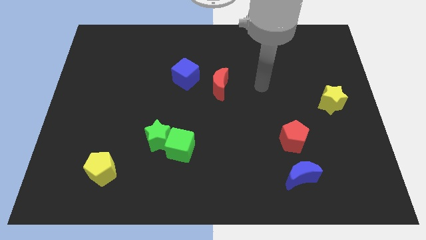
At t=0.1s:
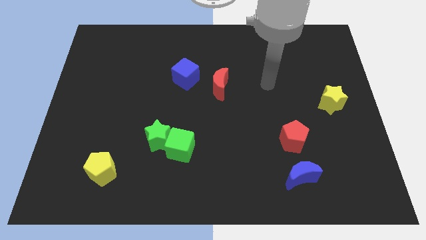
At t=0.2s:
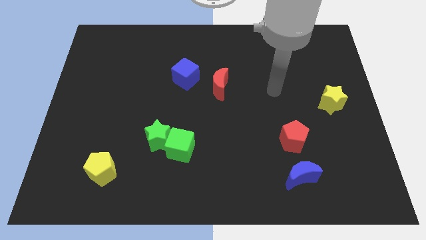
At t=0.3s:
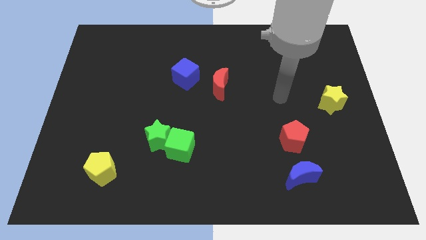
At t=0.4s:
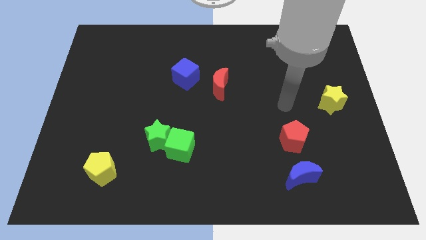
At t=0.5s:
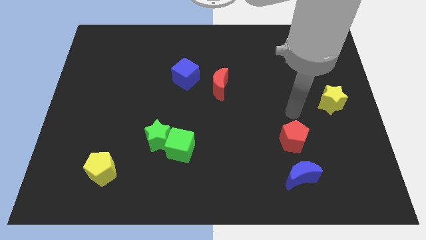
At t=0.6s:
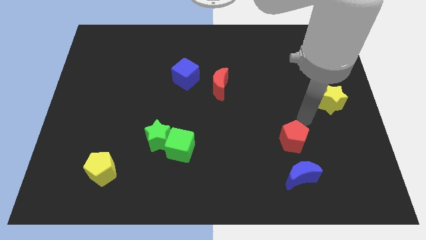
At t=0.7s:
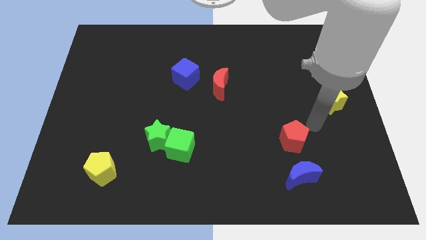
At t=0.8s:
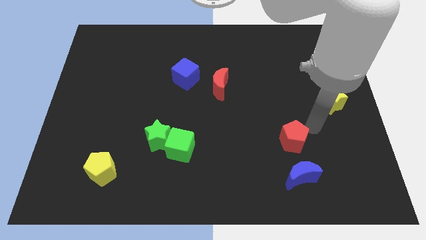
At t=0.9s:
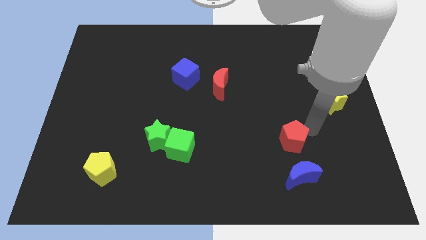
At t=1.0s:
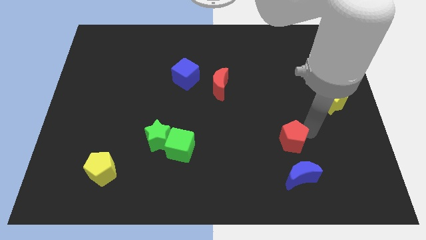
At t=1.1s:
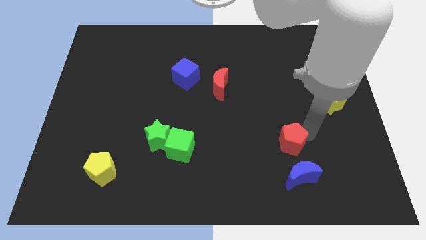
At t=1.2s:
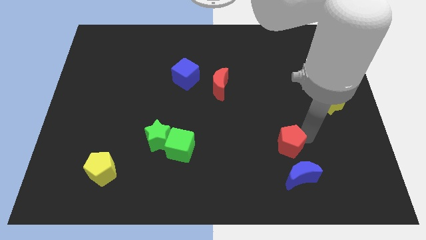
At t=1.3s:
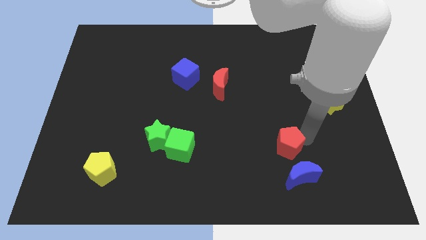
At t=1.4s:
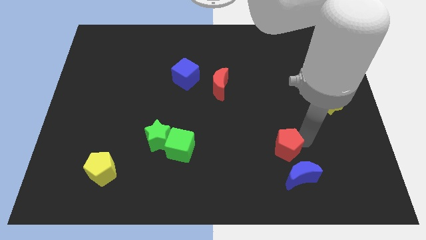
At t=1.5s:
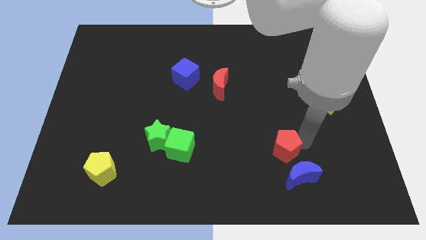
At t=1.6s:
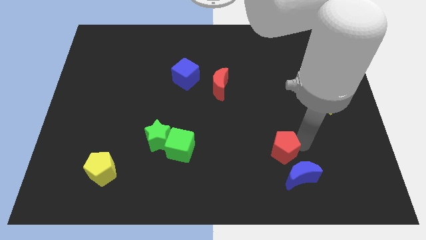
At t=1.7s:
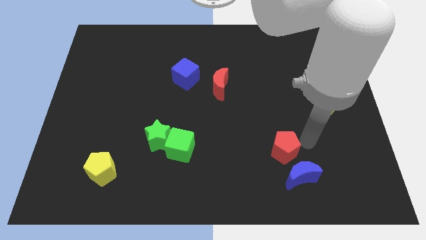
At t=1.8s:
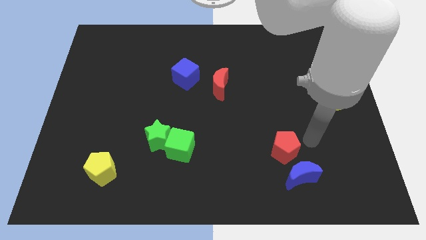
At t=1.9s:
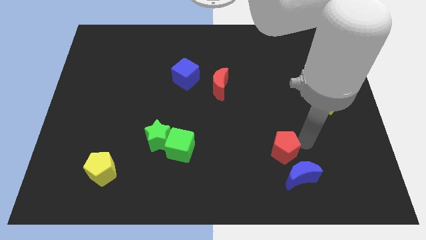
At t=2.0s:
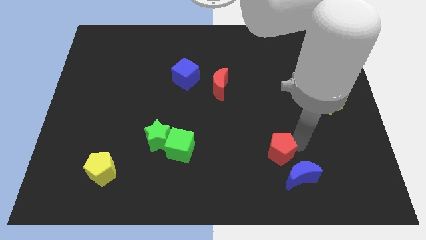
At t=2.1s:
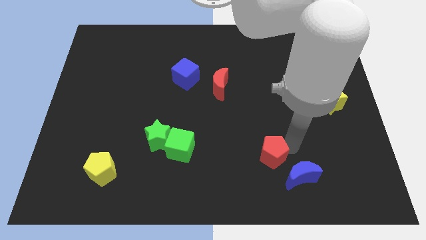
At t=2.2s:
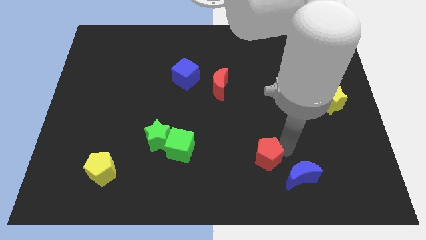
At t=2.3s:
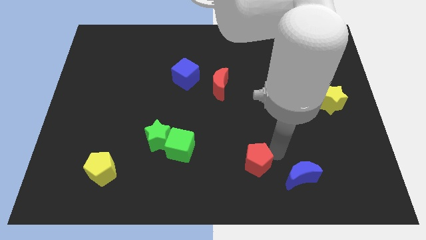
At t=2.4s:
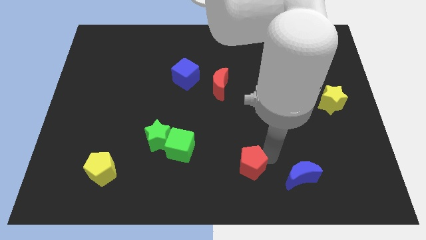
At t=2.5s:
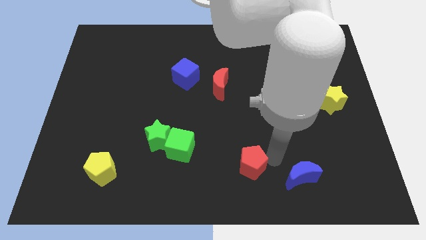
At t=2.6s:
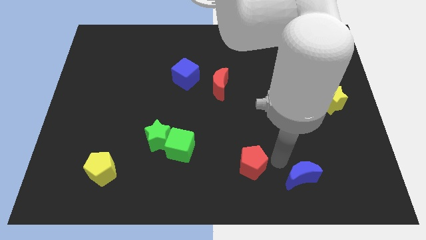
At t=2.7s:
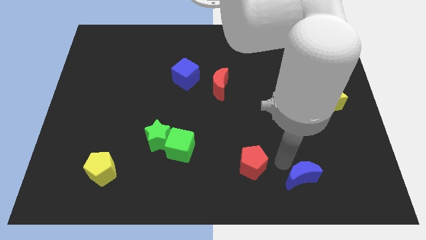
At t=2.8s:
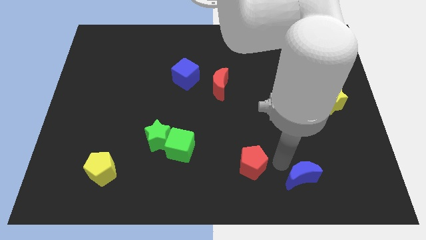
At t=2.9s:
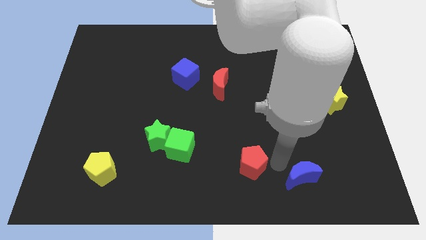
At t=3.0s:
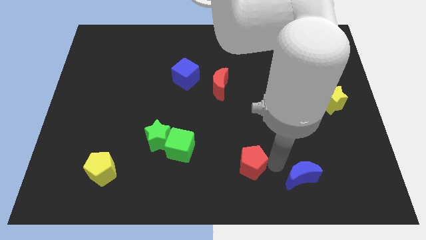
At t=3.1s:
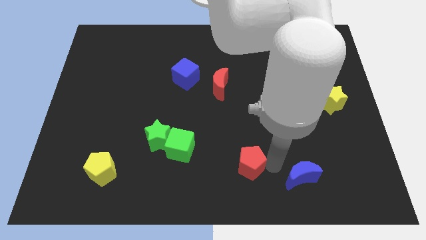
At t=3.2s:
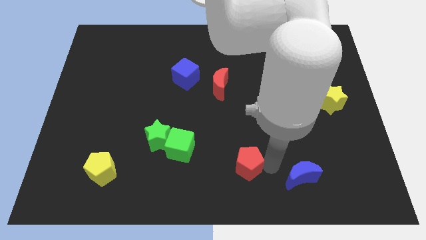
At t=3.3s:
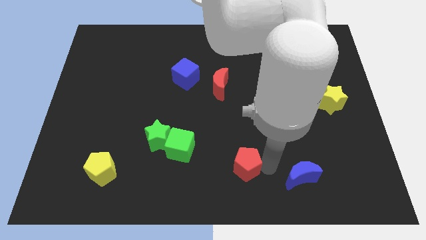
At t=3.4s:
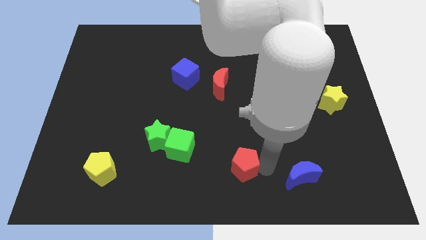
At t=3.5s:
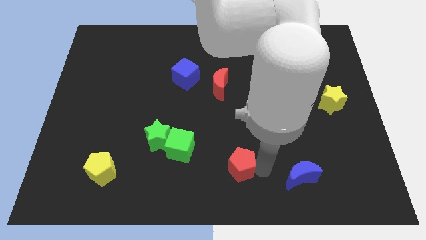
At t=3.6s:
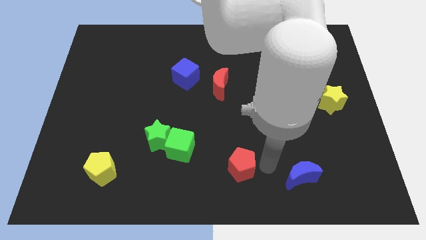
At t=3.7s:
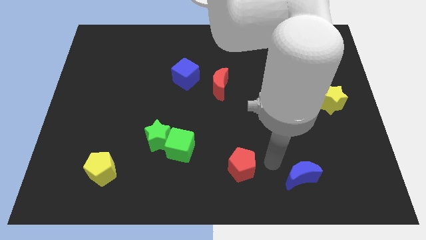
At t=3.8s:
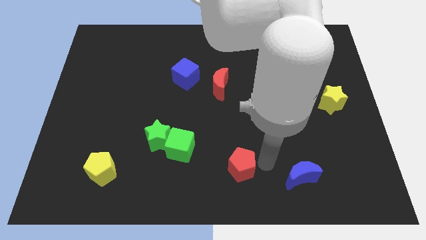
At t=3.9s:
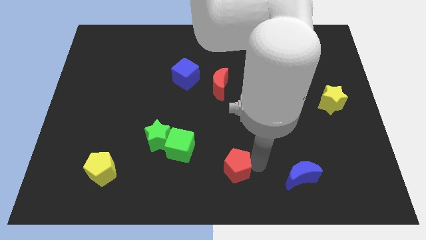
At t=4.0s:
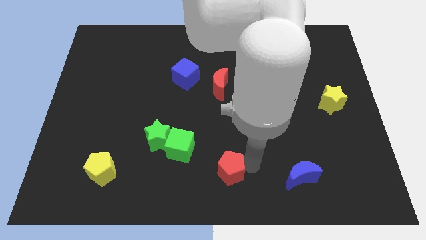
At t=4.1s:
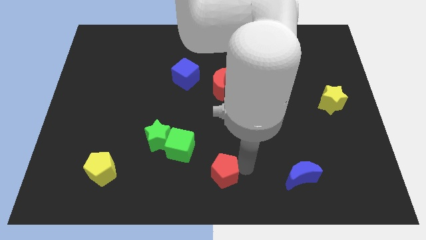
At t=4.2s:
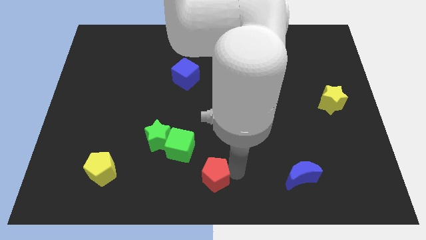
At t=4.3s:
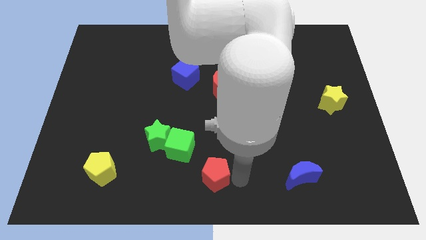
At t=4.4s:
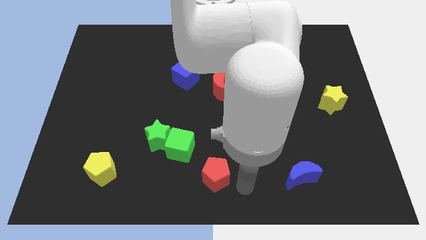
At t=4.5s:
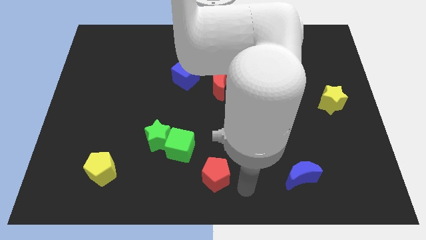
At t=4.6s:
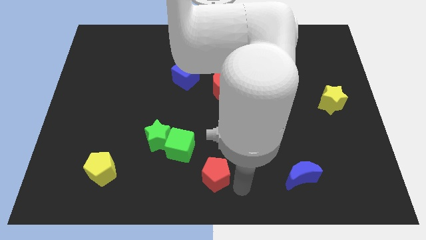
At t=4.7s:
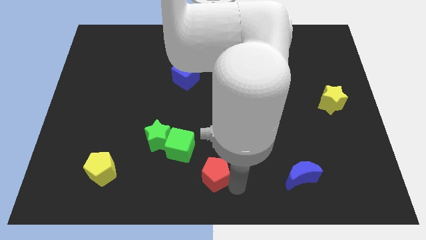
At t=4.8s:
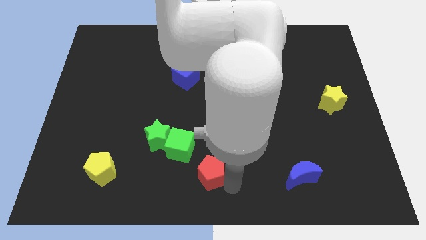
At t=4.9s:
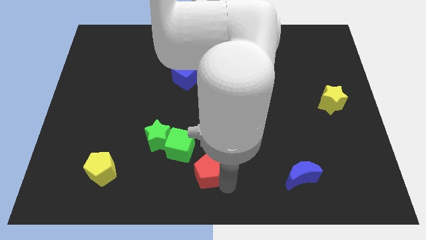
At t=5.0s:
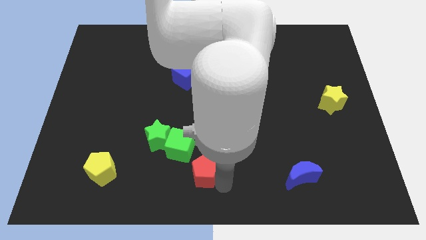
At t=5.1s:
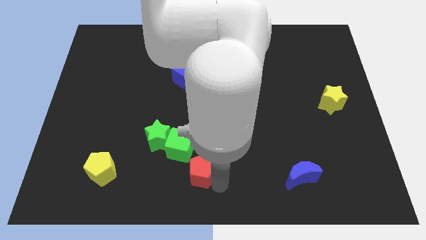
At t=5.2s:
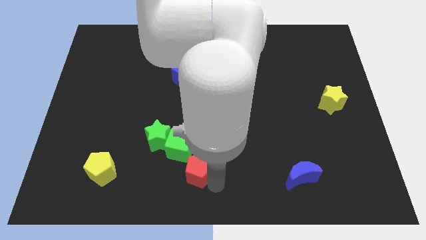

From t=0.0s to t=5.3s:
slide the red pentagon to the bottom right side of the green star

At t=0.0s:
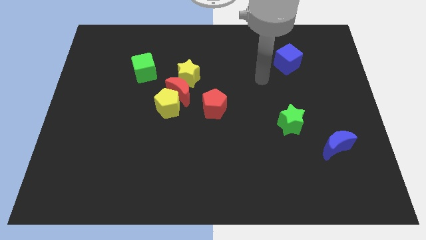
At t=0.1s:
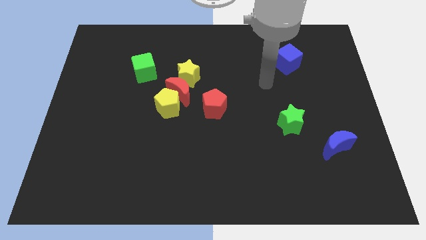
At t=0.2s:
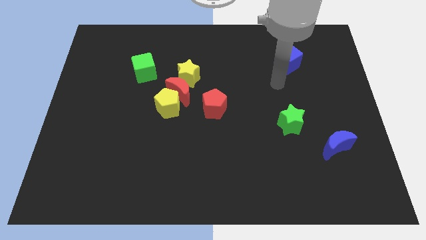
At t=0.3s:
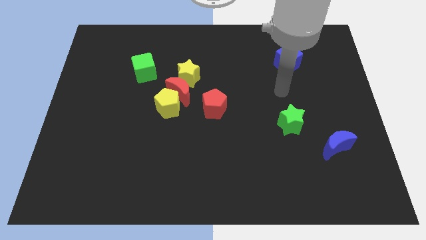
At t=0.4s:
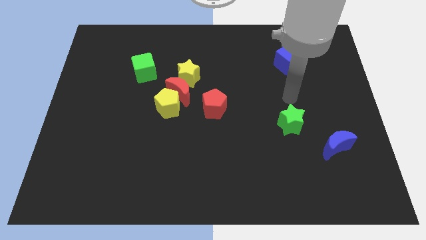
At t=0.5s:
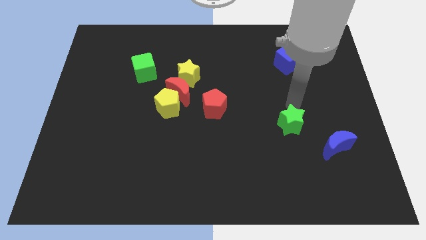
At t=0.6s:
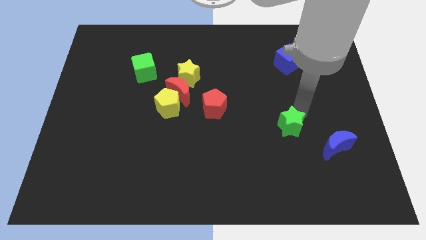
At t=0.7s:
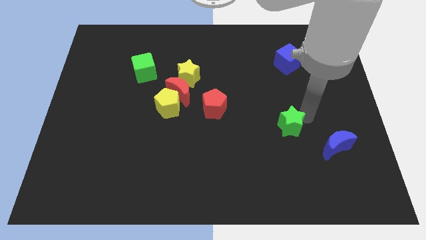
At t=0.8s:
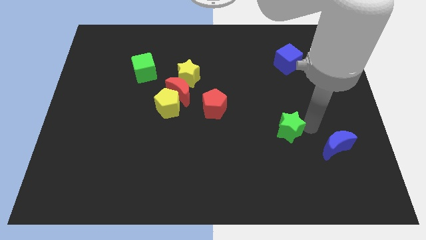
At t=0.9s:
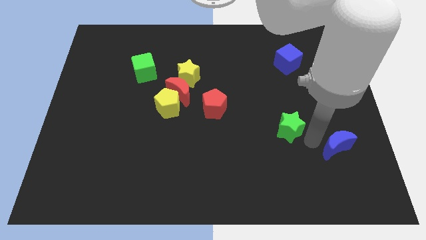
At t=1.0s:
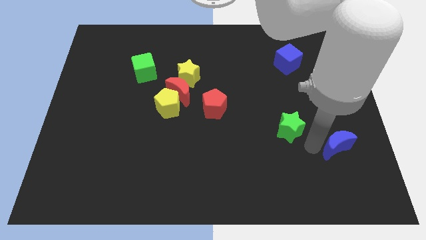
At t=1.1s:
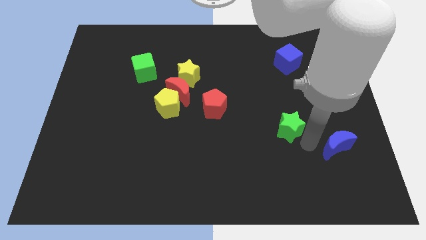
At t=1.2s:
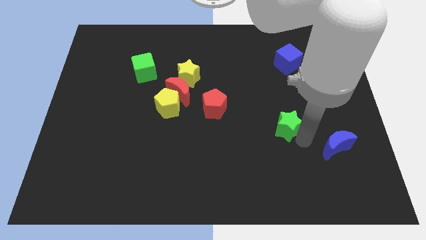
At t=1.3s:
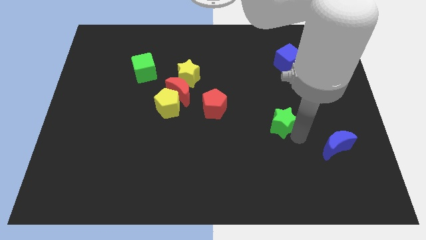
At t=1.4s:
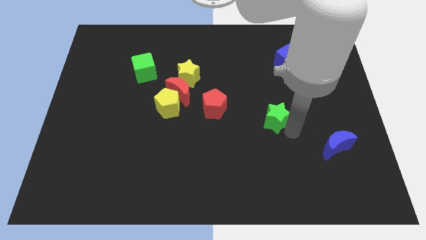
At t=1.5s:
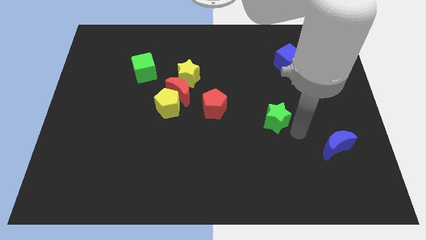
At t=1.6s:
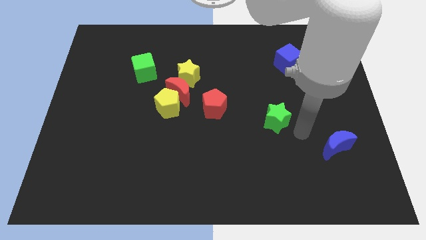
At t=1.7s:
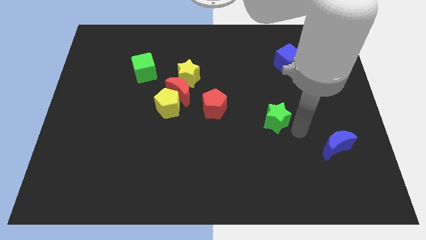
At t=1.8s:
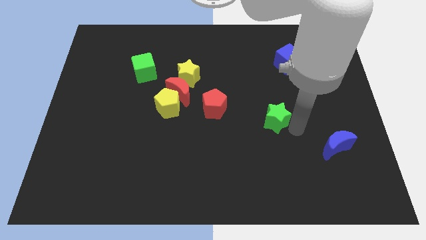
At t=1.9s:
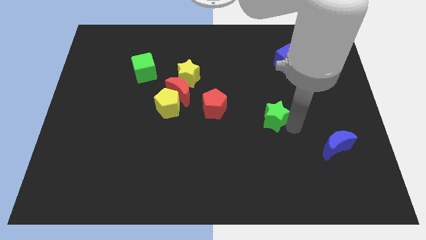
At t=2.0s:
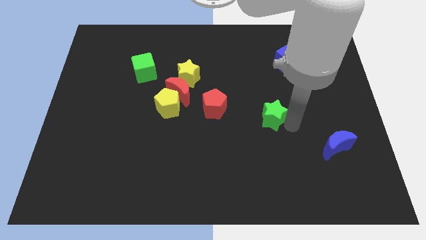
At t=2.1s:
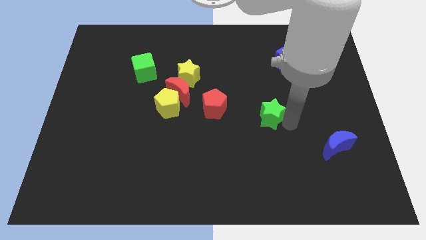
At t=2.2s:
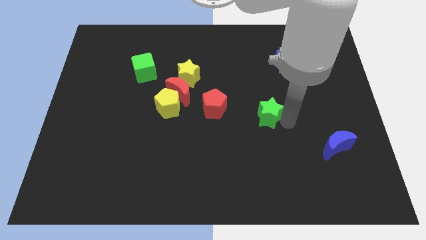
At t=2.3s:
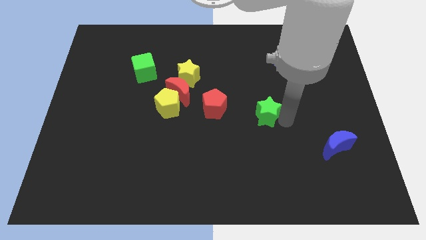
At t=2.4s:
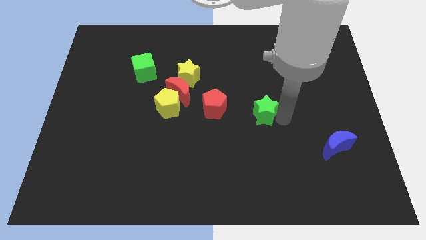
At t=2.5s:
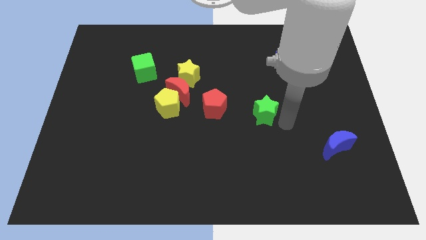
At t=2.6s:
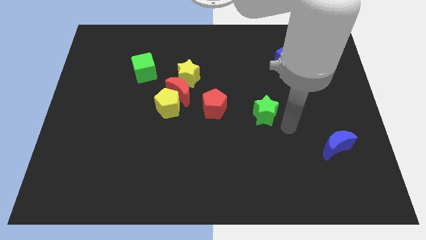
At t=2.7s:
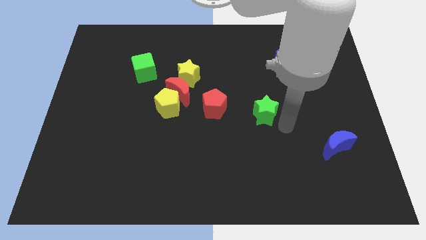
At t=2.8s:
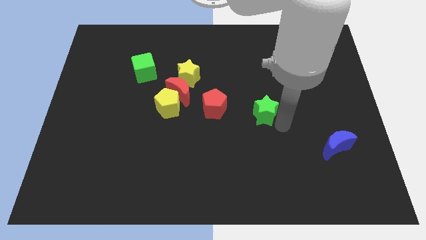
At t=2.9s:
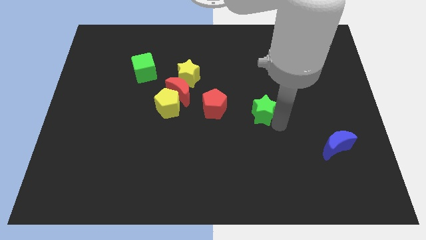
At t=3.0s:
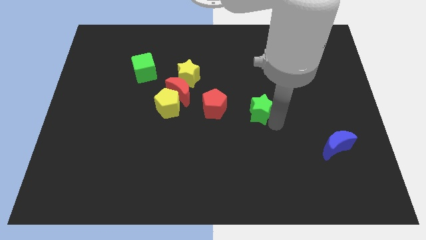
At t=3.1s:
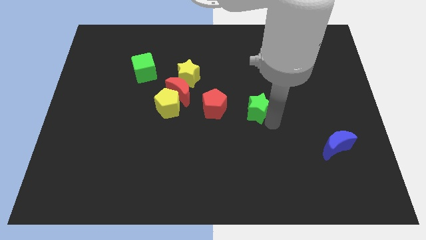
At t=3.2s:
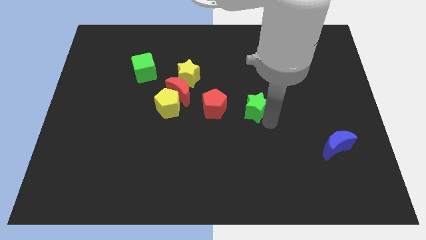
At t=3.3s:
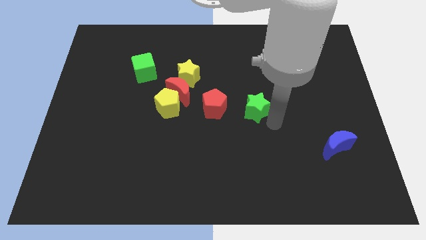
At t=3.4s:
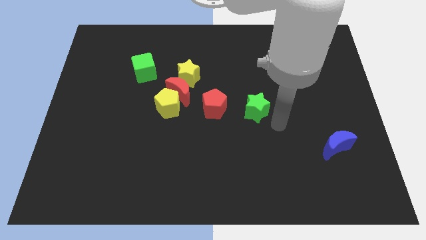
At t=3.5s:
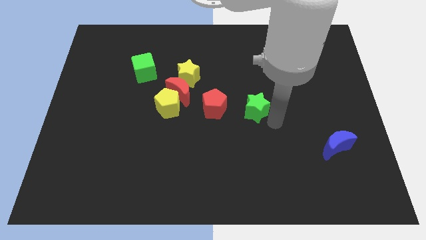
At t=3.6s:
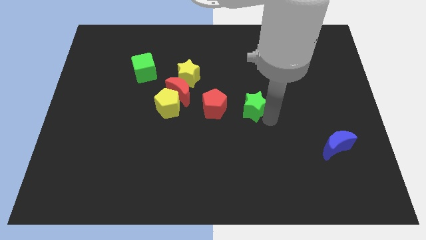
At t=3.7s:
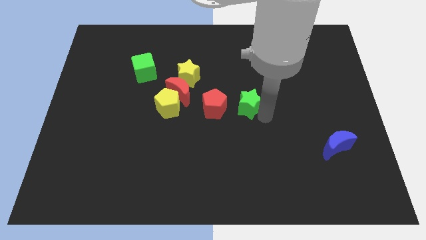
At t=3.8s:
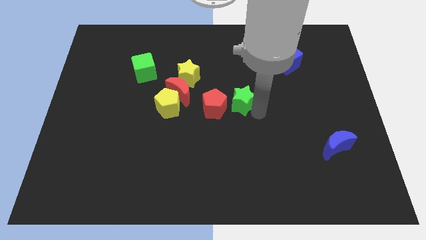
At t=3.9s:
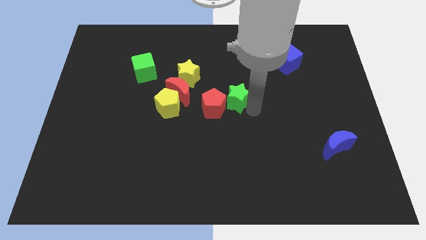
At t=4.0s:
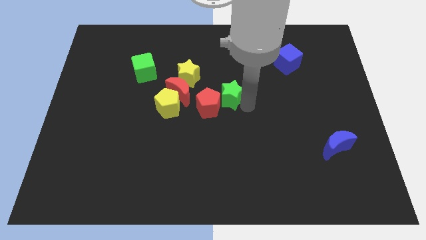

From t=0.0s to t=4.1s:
move the green star to the bottom right side of the yellow star
